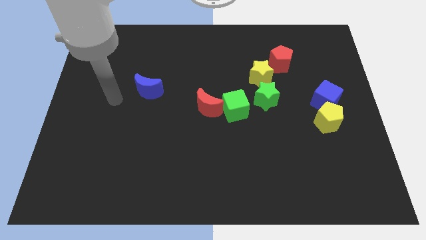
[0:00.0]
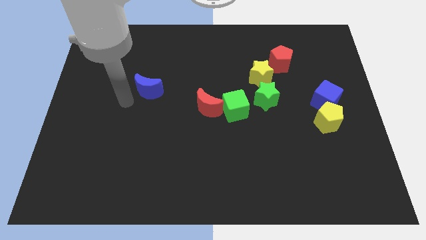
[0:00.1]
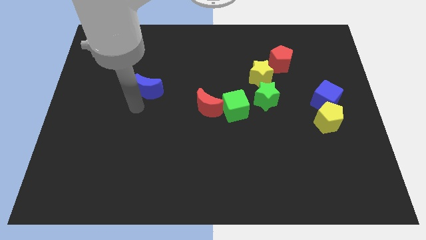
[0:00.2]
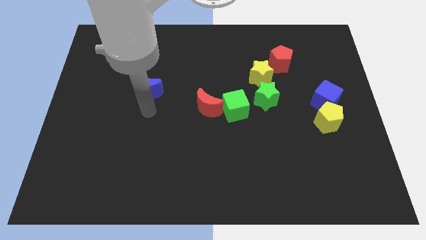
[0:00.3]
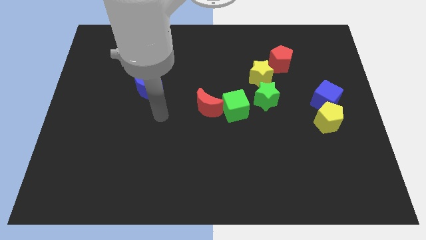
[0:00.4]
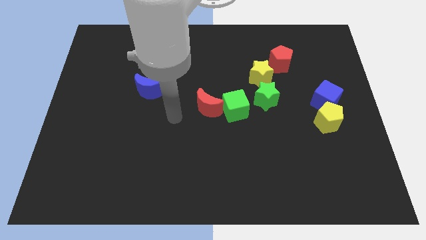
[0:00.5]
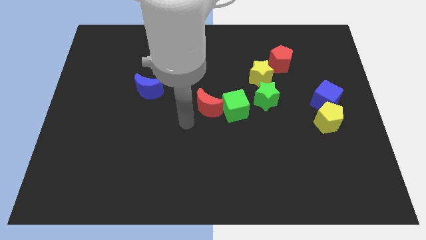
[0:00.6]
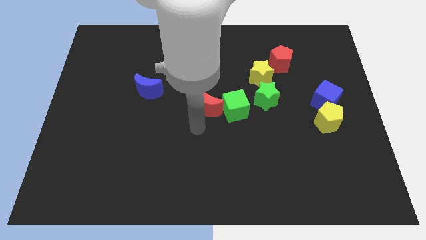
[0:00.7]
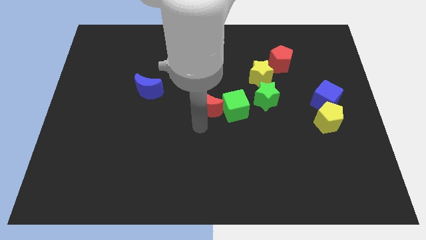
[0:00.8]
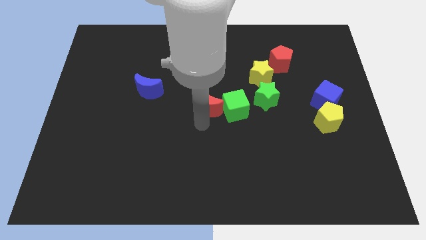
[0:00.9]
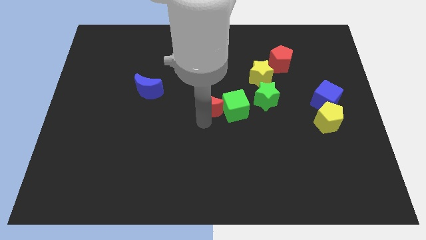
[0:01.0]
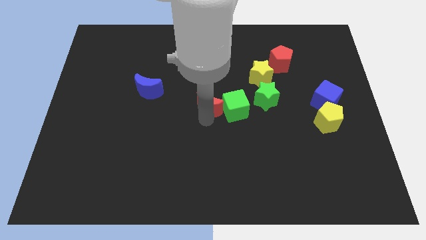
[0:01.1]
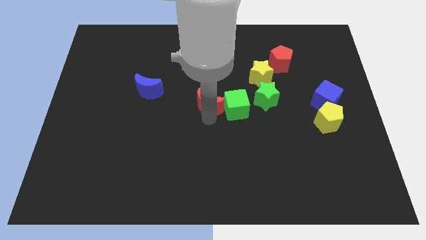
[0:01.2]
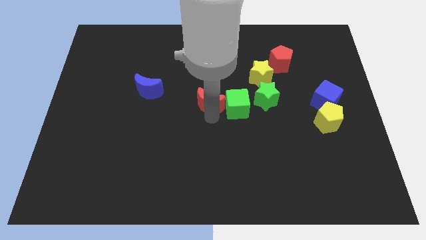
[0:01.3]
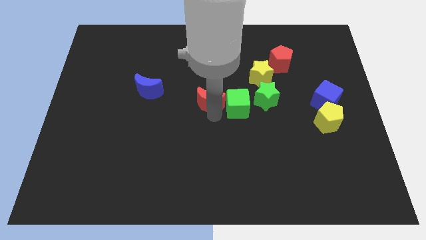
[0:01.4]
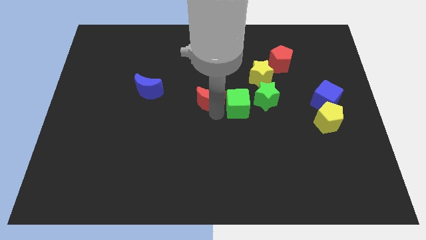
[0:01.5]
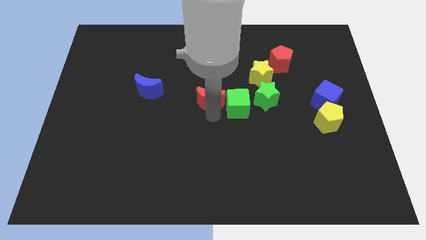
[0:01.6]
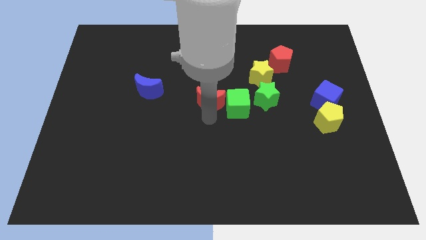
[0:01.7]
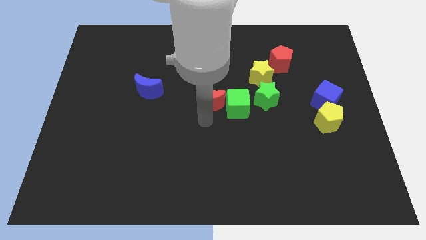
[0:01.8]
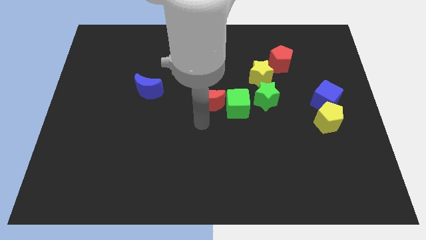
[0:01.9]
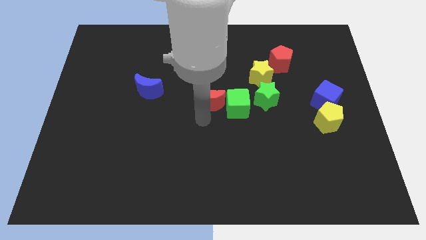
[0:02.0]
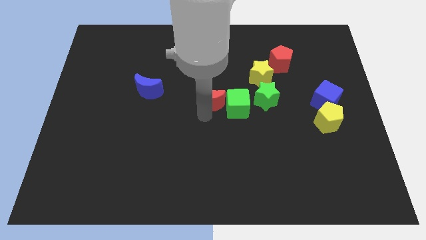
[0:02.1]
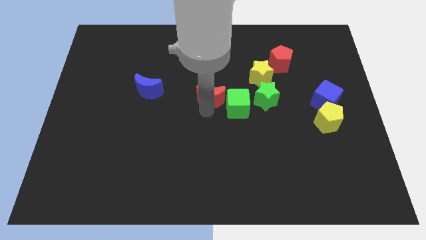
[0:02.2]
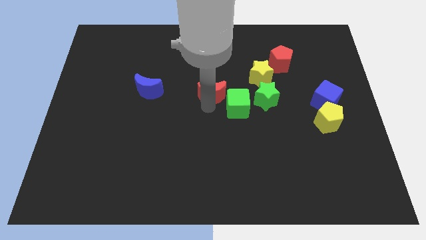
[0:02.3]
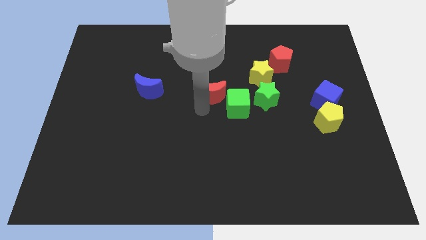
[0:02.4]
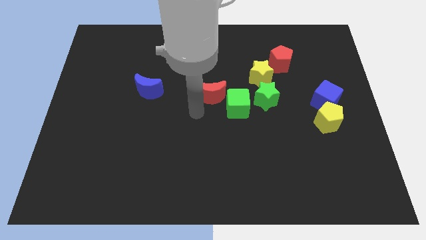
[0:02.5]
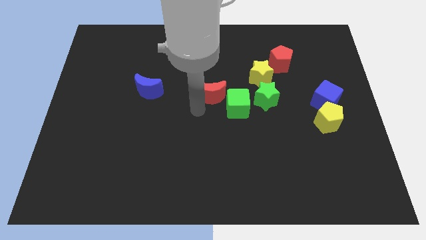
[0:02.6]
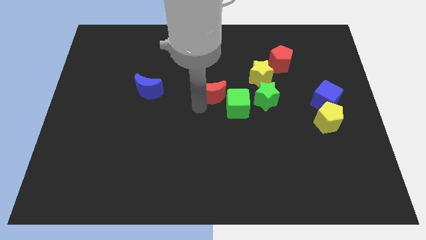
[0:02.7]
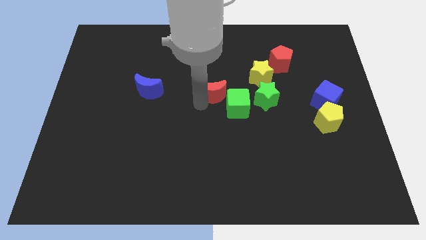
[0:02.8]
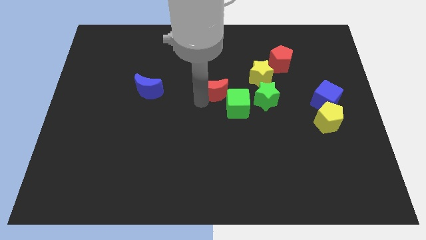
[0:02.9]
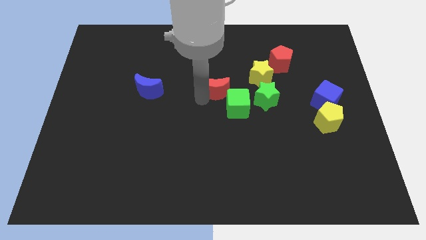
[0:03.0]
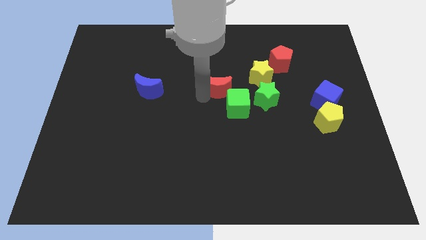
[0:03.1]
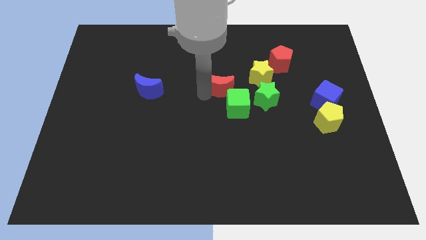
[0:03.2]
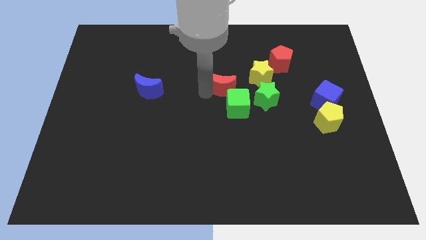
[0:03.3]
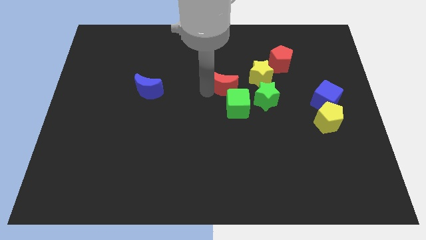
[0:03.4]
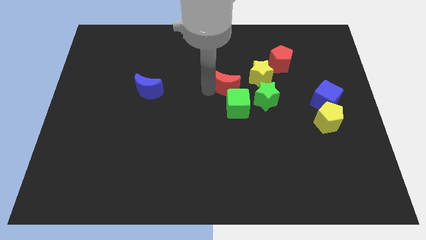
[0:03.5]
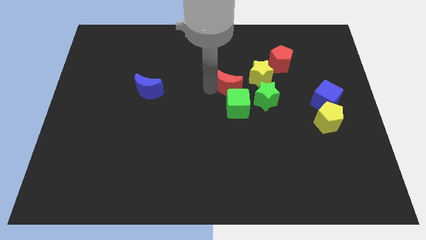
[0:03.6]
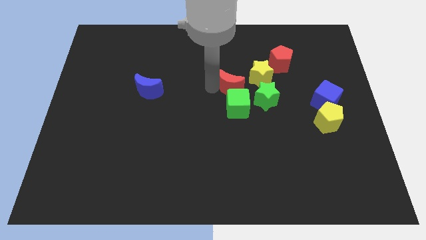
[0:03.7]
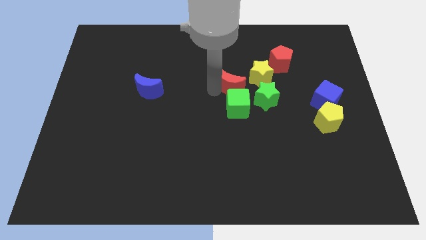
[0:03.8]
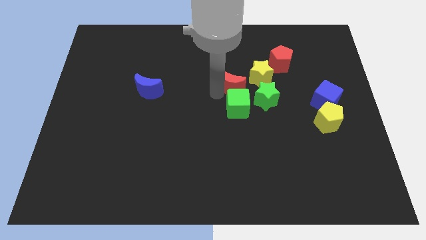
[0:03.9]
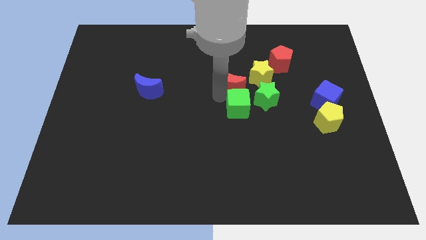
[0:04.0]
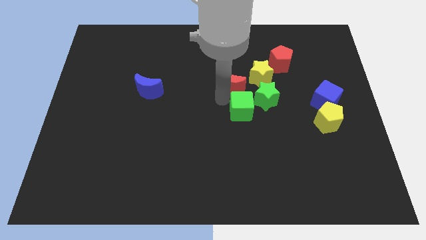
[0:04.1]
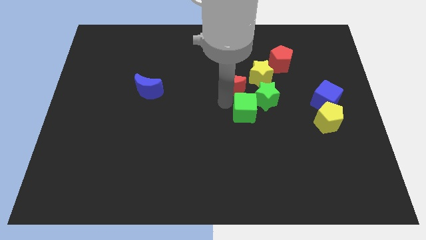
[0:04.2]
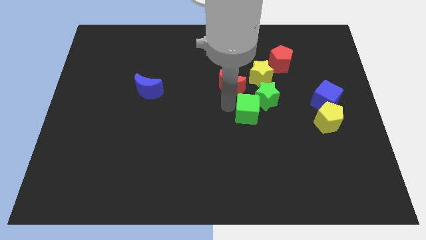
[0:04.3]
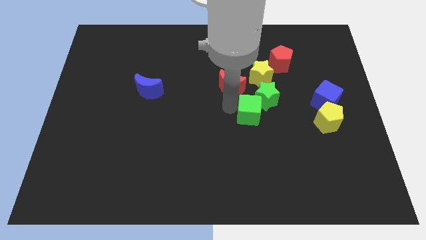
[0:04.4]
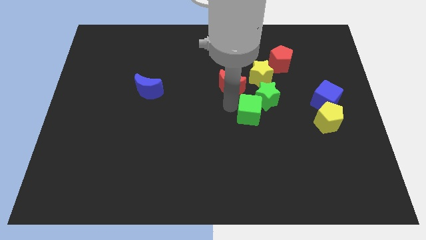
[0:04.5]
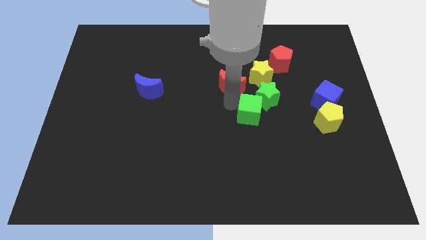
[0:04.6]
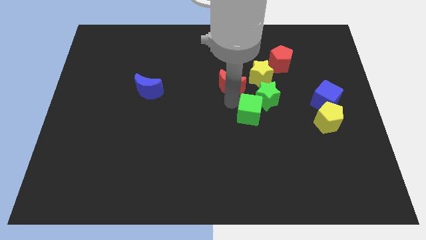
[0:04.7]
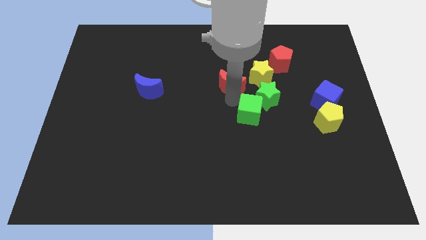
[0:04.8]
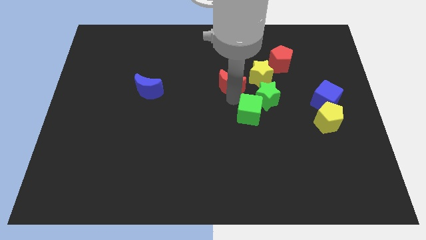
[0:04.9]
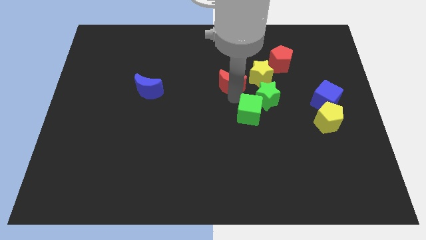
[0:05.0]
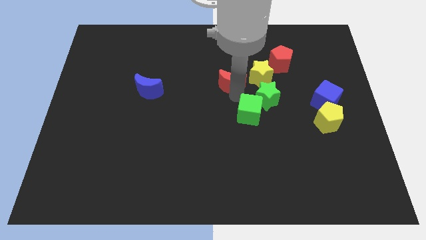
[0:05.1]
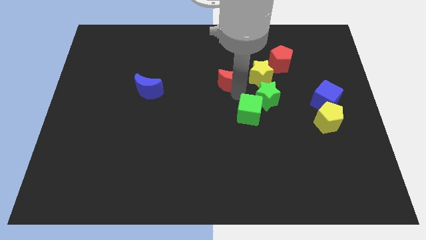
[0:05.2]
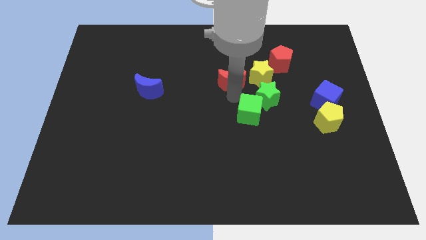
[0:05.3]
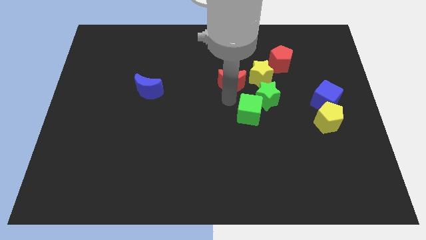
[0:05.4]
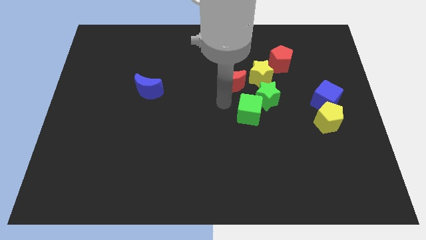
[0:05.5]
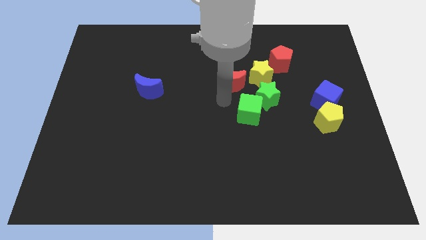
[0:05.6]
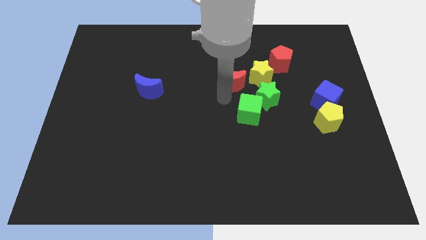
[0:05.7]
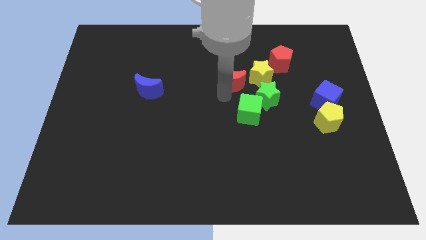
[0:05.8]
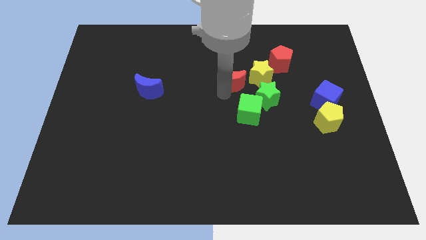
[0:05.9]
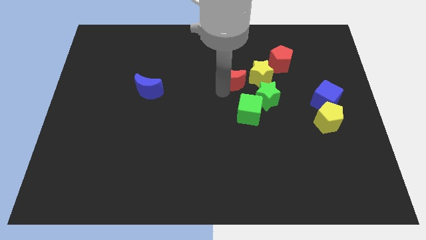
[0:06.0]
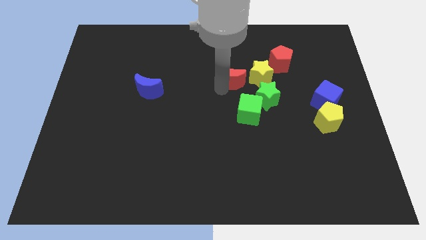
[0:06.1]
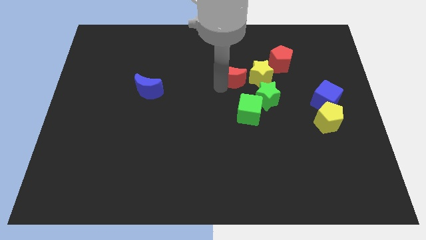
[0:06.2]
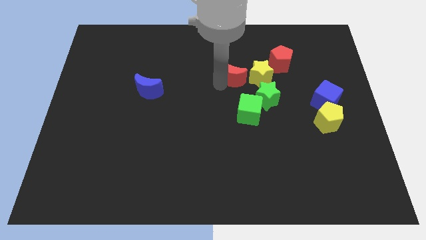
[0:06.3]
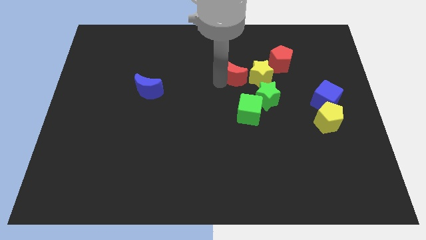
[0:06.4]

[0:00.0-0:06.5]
put the red moon to the left of the red pentagon

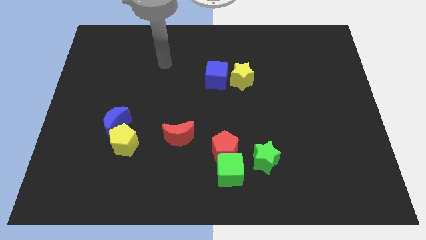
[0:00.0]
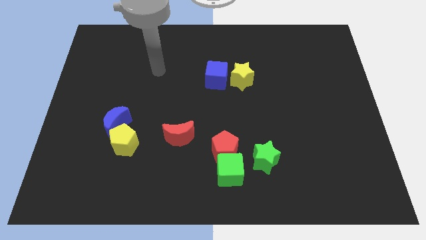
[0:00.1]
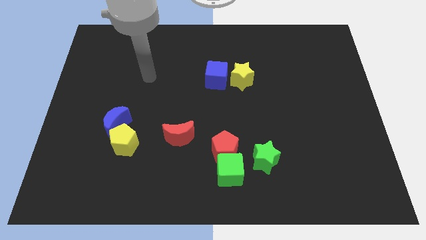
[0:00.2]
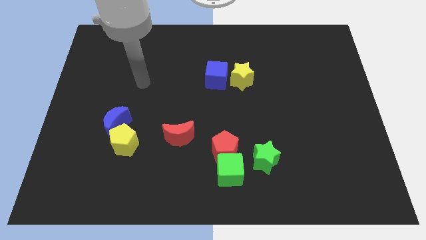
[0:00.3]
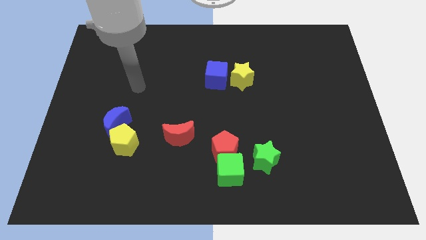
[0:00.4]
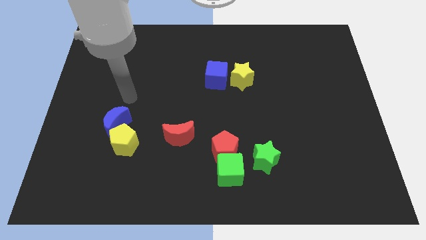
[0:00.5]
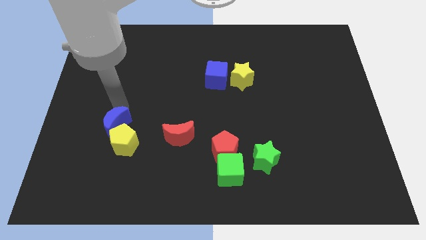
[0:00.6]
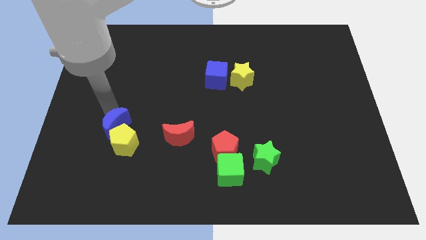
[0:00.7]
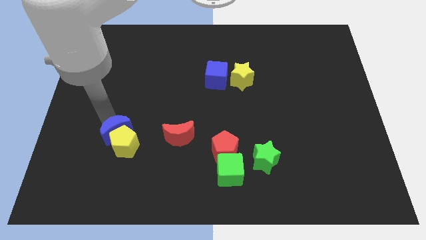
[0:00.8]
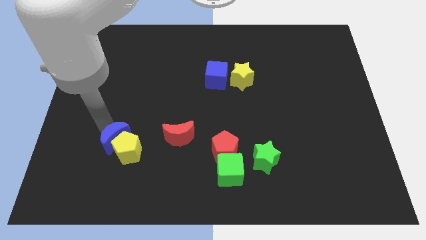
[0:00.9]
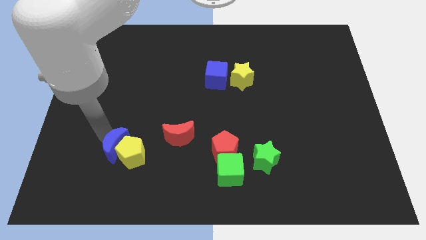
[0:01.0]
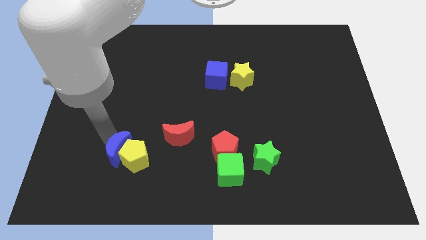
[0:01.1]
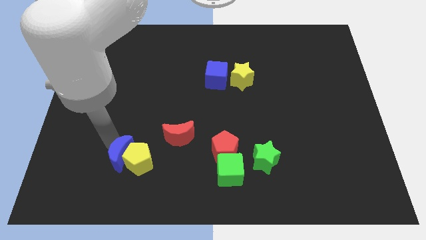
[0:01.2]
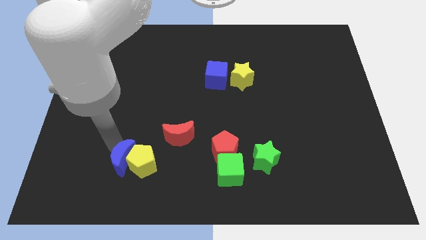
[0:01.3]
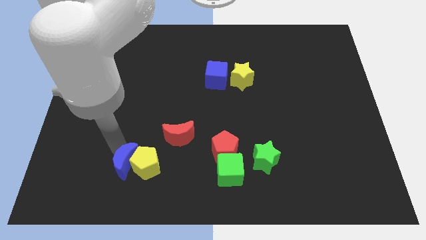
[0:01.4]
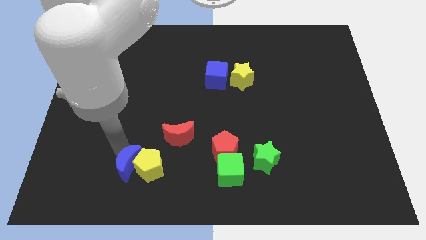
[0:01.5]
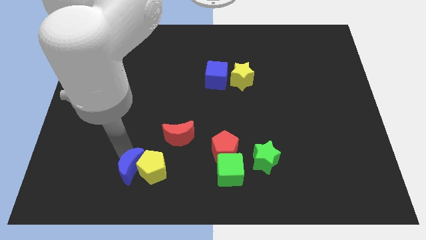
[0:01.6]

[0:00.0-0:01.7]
put the yellow pentagon to the bottom of the red moon
